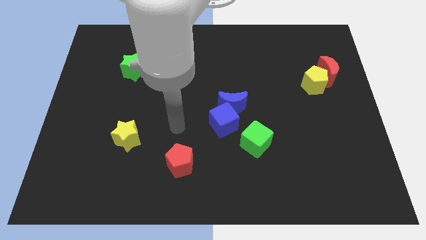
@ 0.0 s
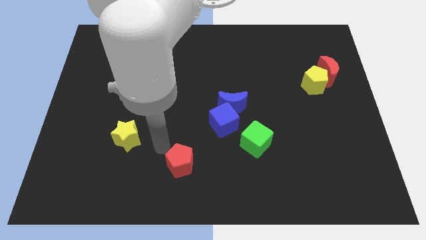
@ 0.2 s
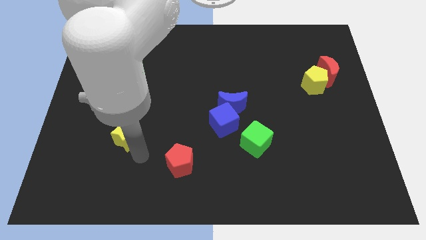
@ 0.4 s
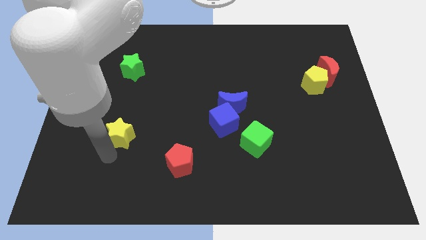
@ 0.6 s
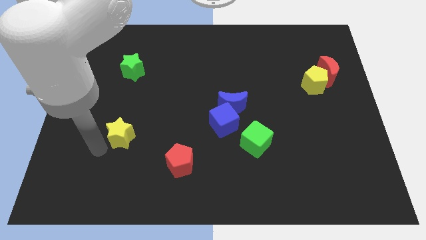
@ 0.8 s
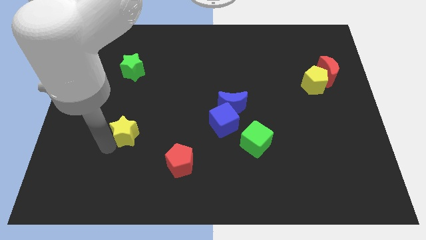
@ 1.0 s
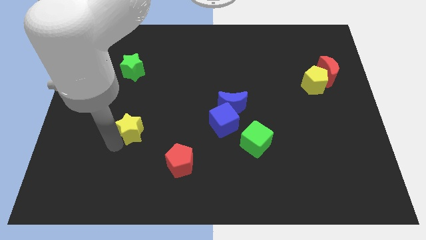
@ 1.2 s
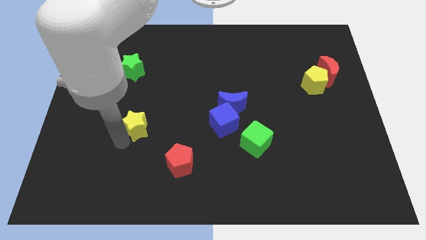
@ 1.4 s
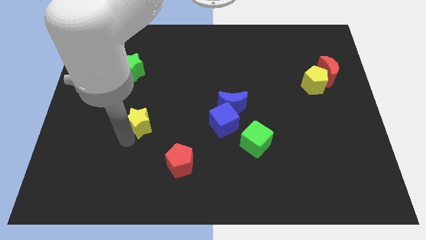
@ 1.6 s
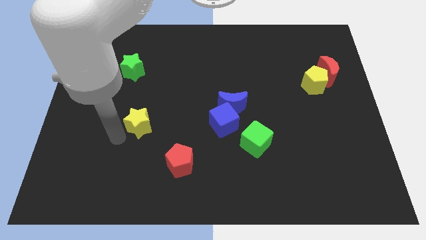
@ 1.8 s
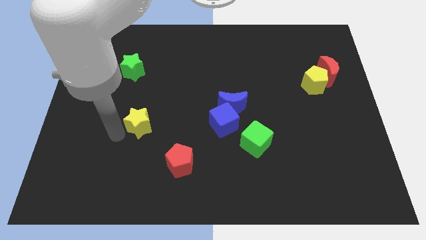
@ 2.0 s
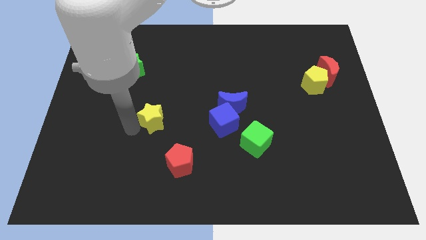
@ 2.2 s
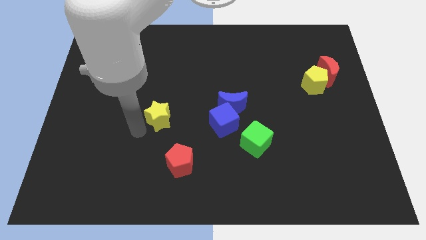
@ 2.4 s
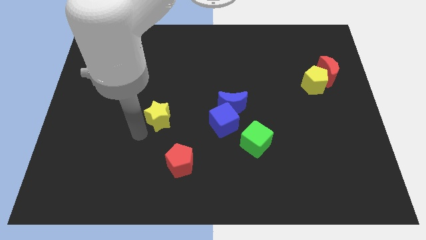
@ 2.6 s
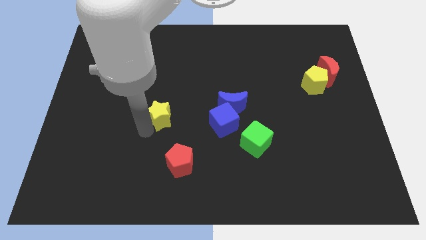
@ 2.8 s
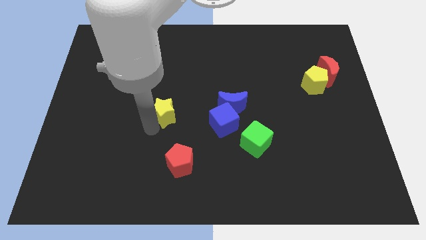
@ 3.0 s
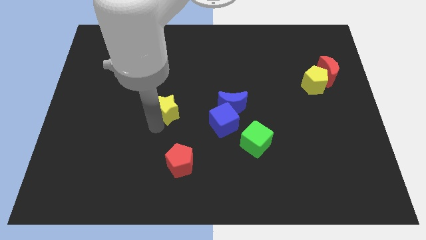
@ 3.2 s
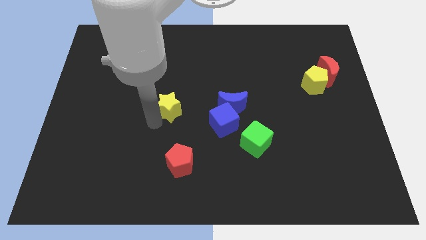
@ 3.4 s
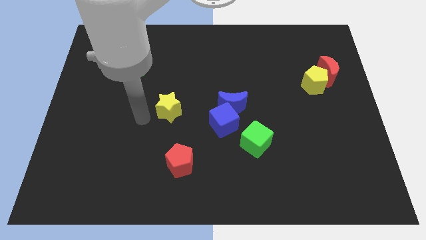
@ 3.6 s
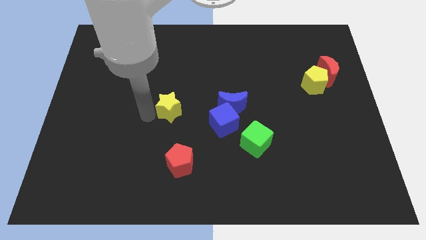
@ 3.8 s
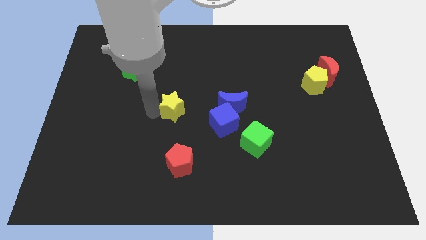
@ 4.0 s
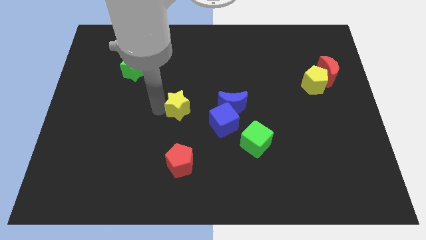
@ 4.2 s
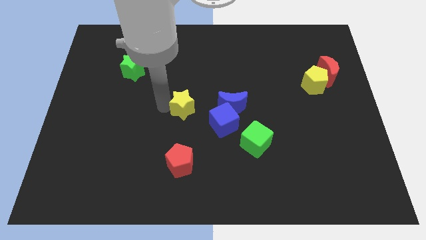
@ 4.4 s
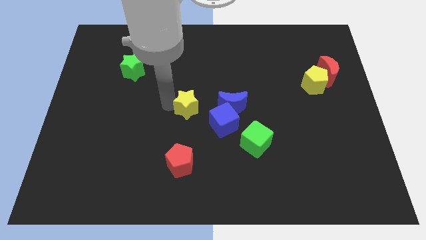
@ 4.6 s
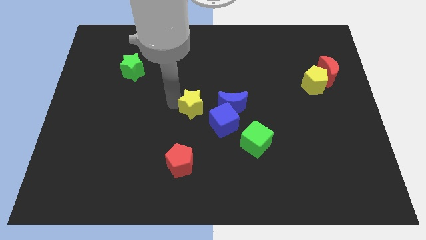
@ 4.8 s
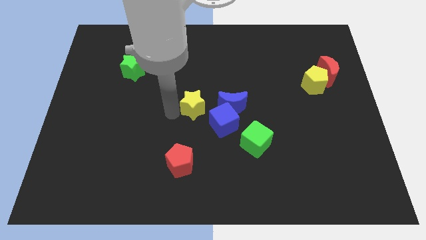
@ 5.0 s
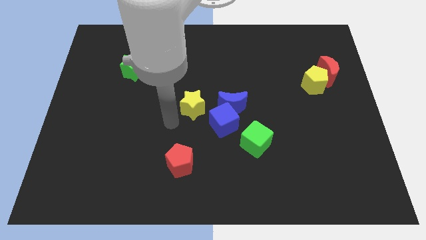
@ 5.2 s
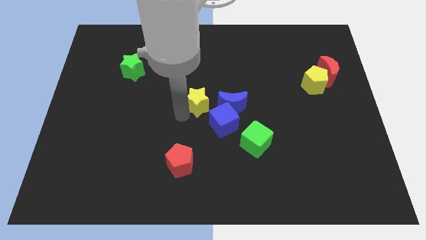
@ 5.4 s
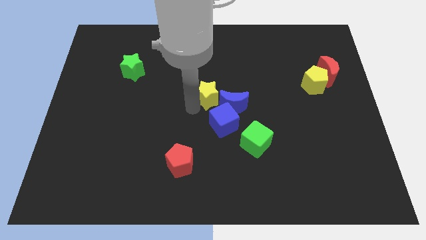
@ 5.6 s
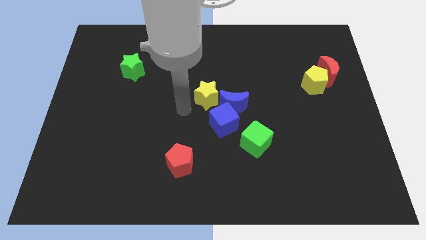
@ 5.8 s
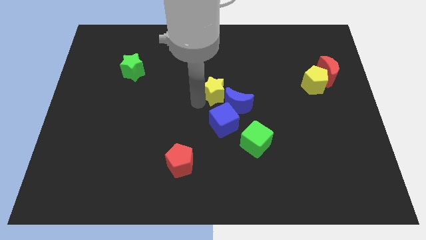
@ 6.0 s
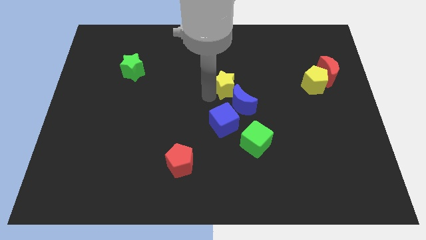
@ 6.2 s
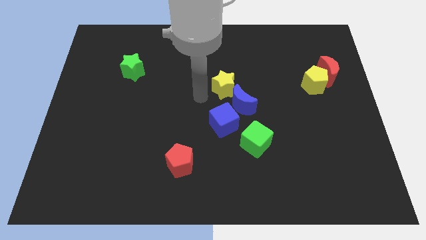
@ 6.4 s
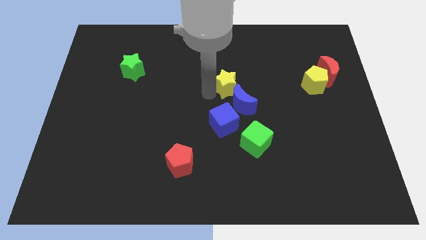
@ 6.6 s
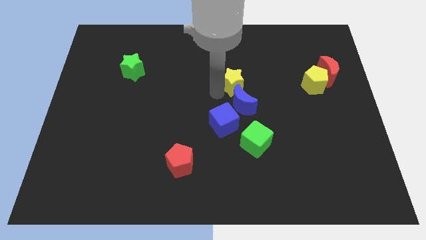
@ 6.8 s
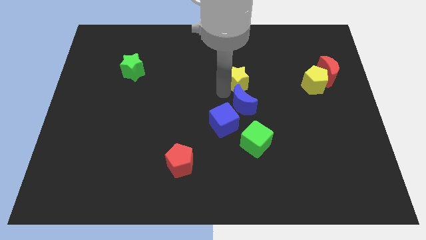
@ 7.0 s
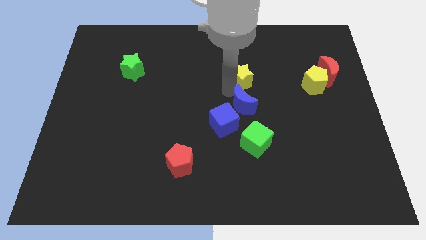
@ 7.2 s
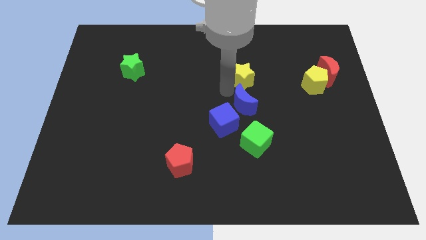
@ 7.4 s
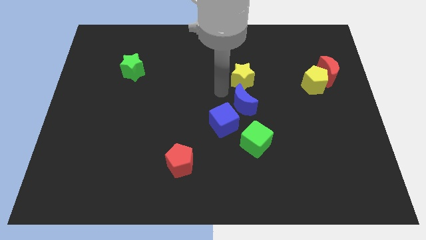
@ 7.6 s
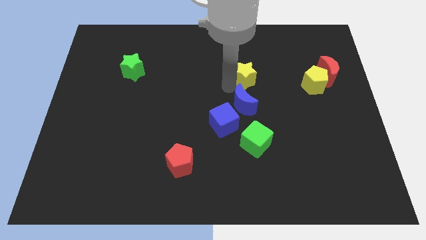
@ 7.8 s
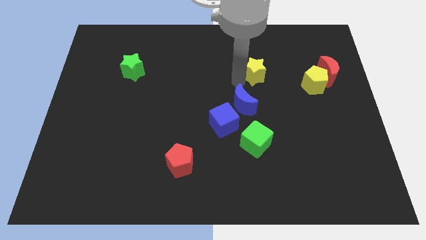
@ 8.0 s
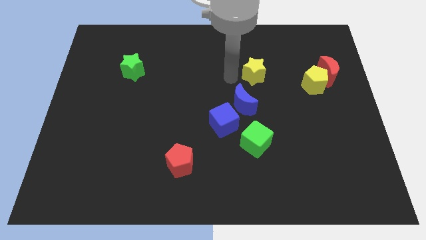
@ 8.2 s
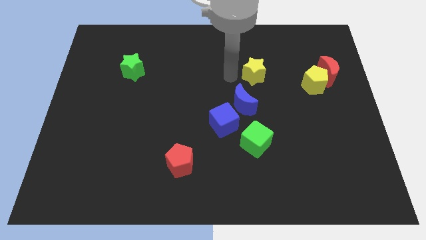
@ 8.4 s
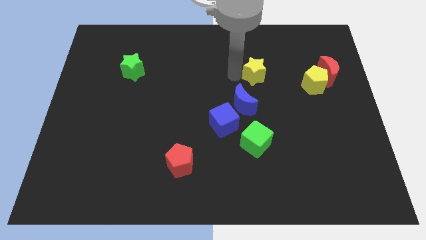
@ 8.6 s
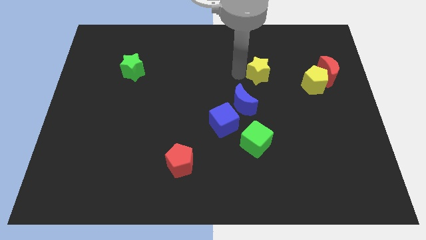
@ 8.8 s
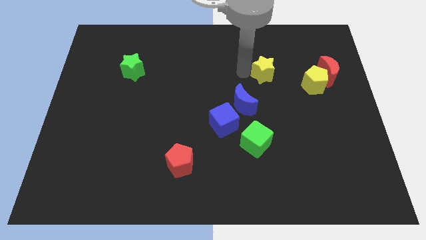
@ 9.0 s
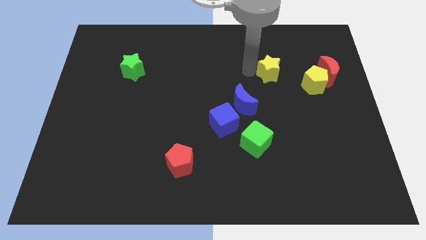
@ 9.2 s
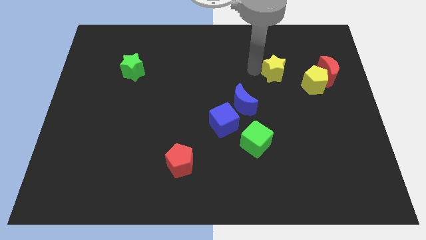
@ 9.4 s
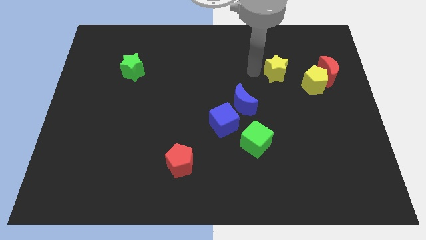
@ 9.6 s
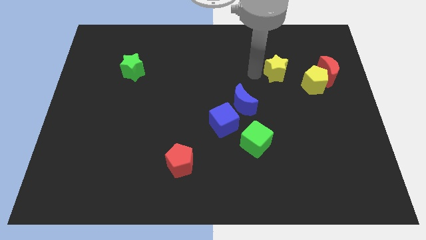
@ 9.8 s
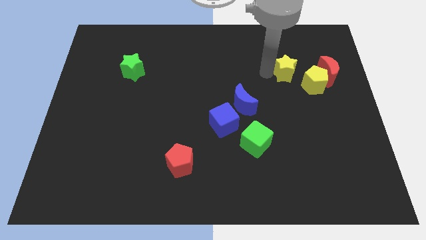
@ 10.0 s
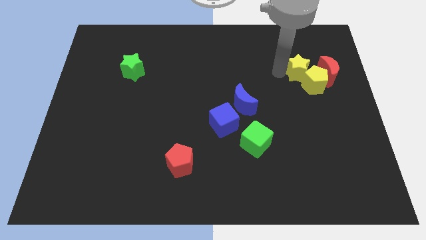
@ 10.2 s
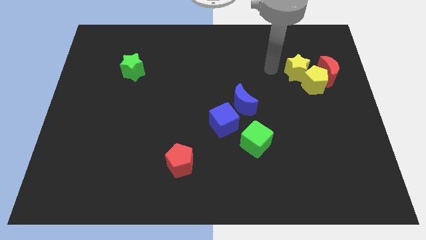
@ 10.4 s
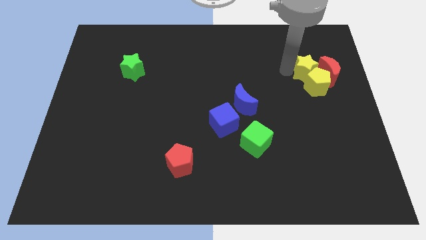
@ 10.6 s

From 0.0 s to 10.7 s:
put the yellow star towards the red moon

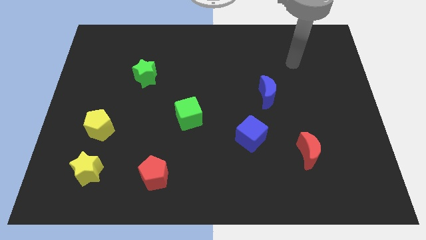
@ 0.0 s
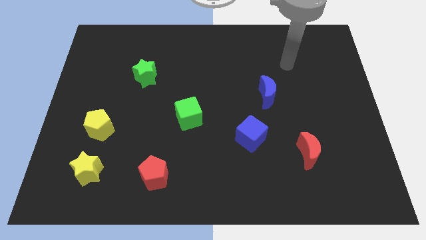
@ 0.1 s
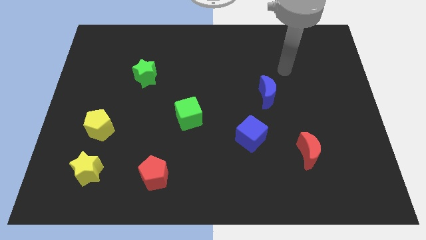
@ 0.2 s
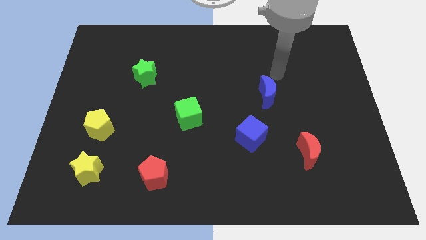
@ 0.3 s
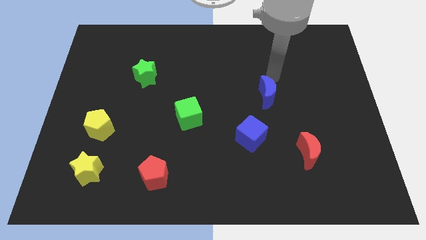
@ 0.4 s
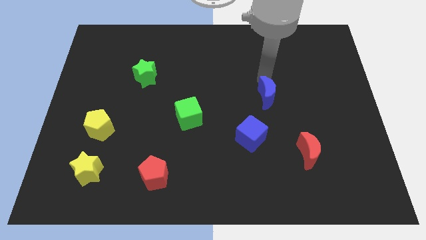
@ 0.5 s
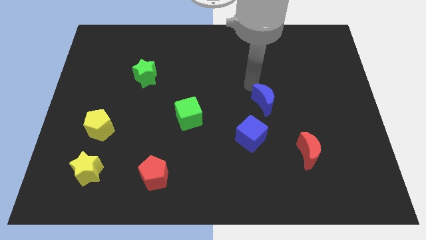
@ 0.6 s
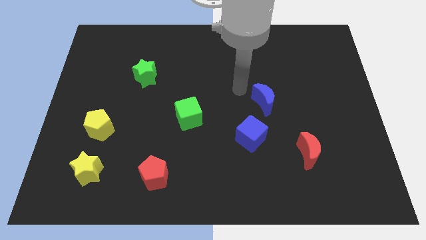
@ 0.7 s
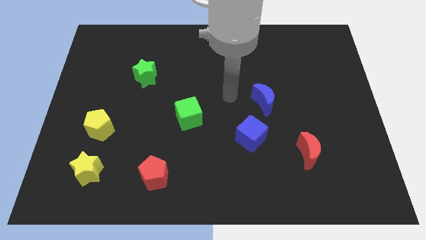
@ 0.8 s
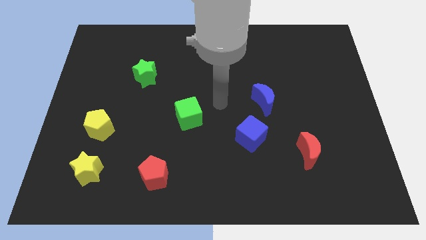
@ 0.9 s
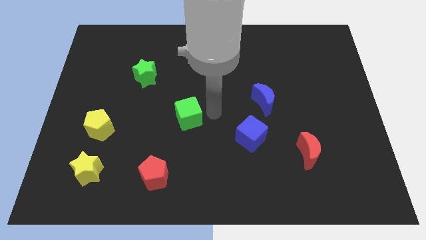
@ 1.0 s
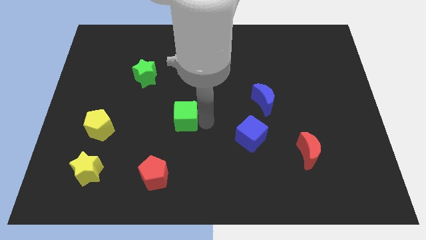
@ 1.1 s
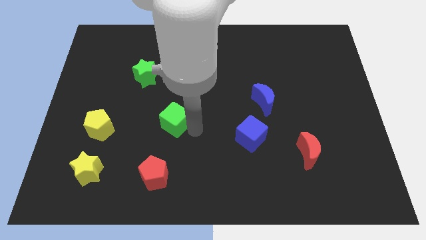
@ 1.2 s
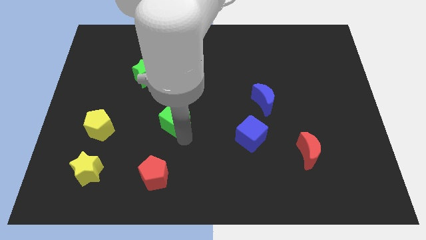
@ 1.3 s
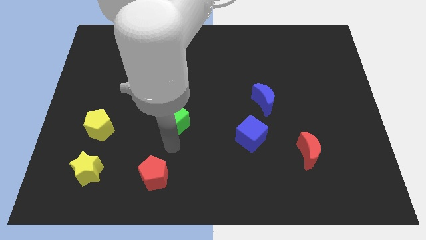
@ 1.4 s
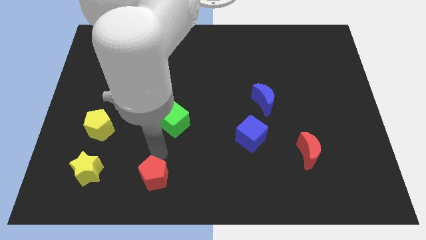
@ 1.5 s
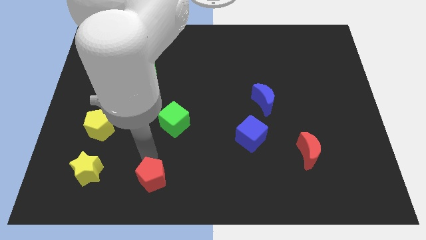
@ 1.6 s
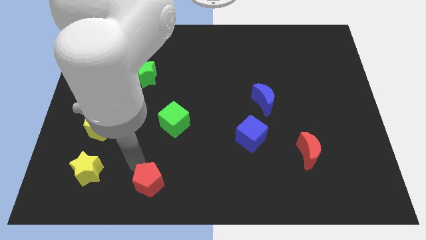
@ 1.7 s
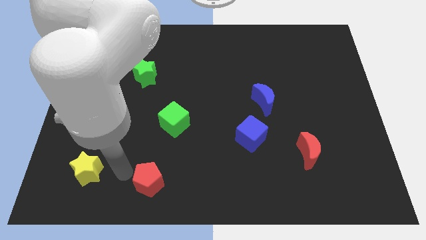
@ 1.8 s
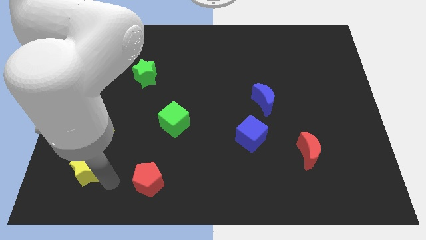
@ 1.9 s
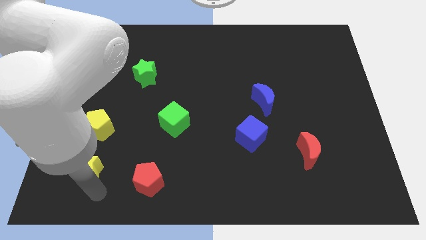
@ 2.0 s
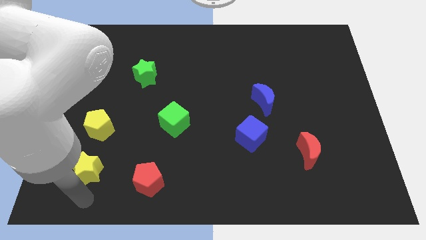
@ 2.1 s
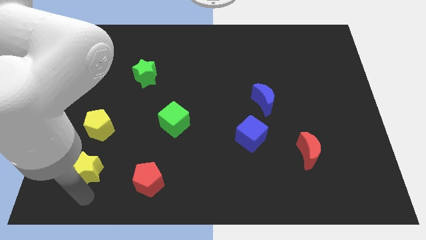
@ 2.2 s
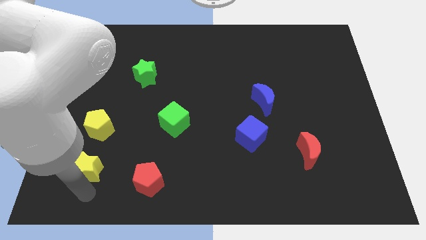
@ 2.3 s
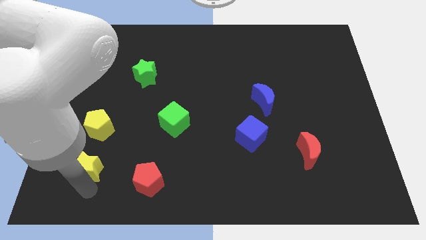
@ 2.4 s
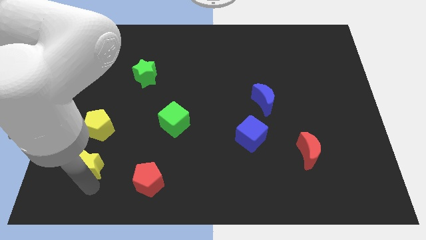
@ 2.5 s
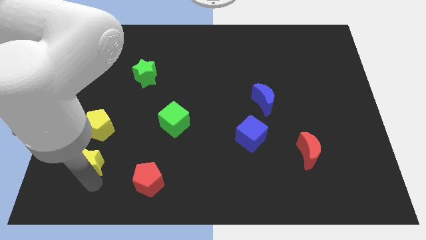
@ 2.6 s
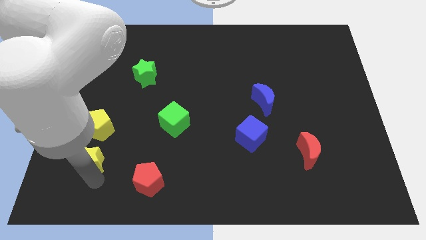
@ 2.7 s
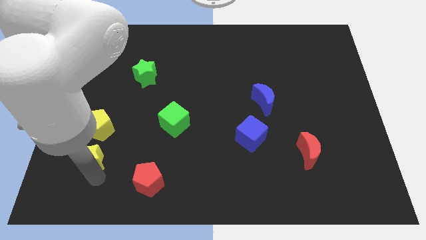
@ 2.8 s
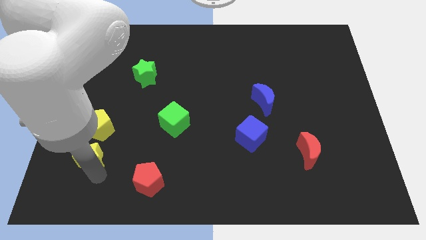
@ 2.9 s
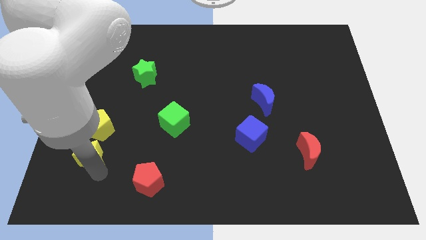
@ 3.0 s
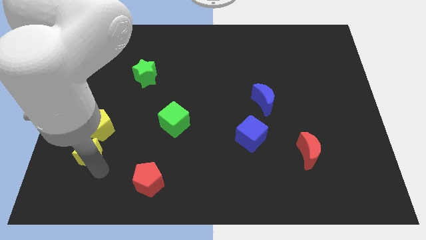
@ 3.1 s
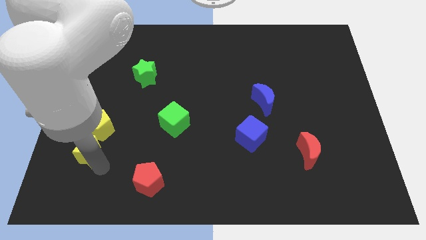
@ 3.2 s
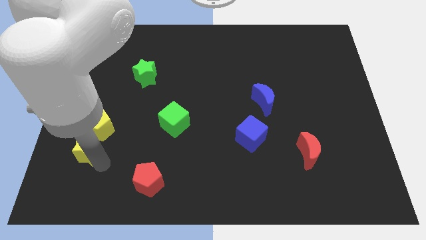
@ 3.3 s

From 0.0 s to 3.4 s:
slide the yellow star towards the yellow pentagon
